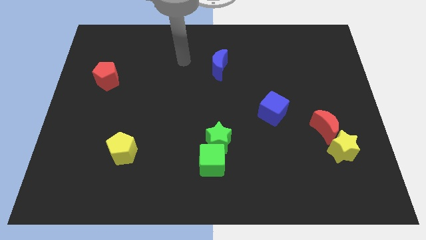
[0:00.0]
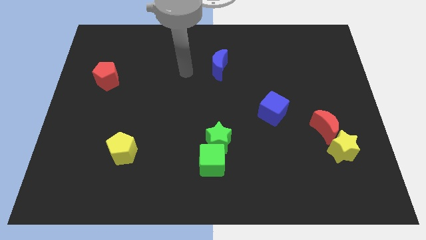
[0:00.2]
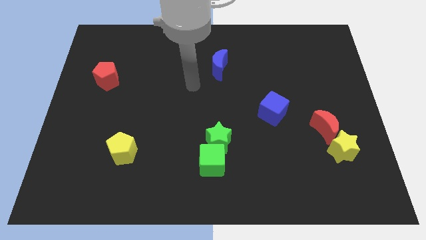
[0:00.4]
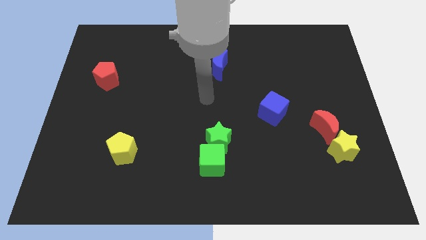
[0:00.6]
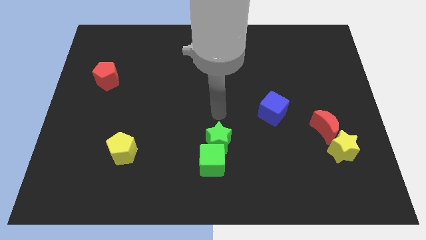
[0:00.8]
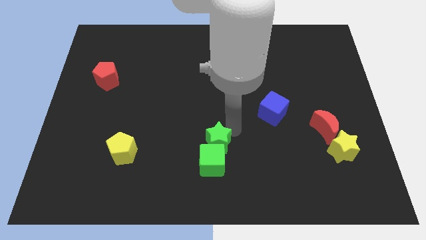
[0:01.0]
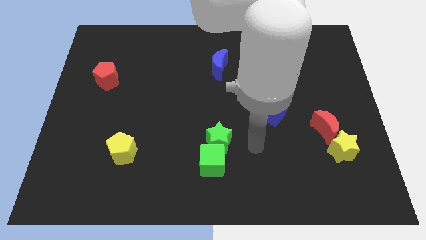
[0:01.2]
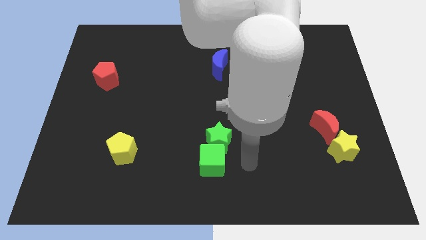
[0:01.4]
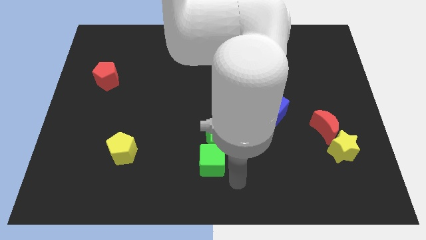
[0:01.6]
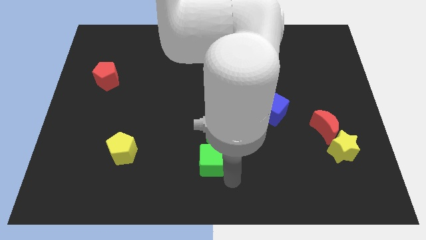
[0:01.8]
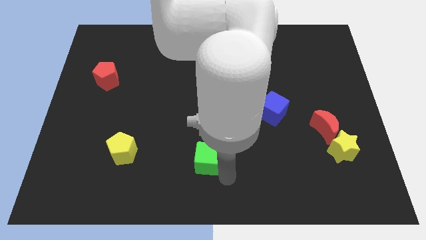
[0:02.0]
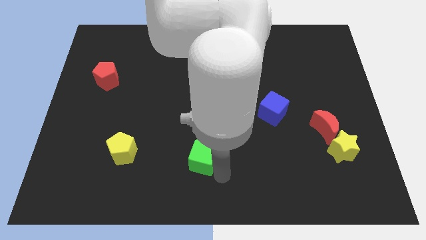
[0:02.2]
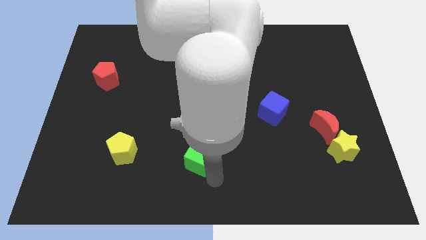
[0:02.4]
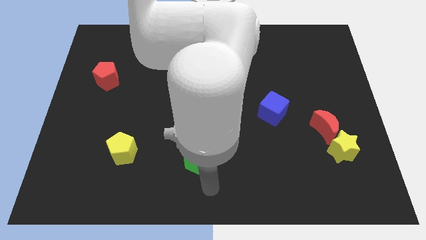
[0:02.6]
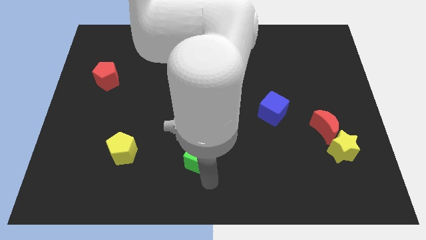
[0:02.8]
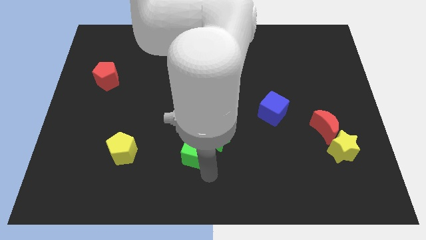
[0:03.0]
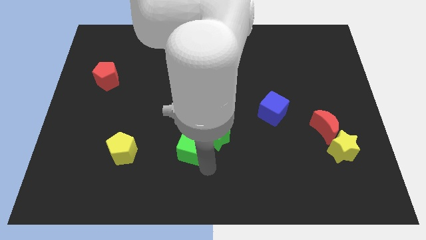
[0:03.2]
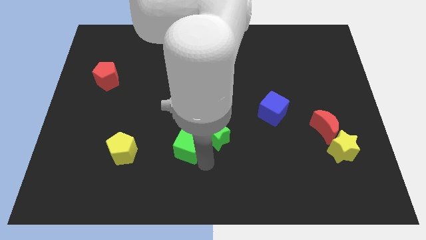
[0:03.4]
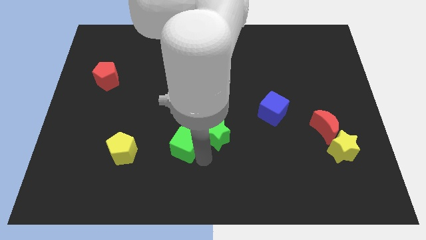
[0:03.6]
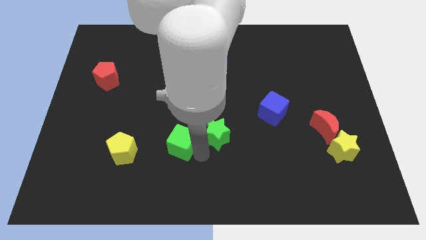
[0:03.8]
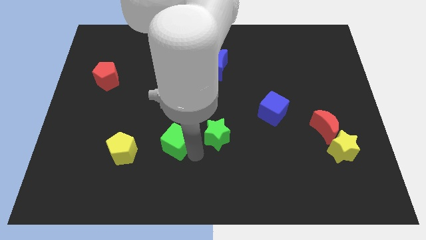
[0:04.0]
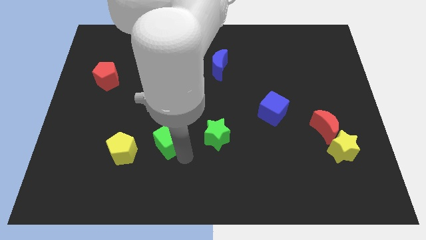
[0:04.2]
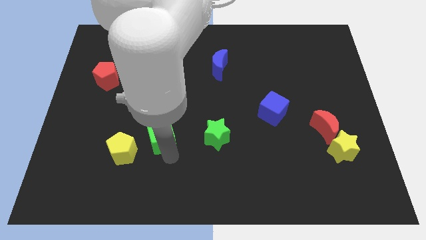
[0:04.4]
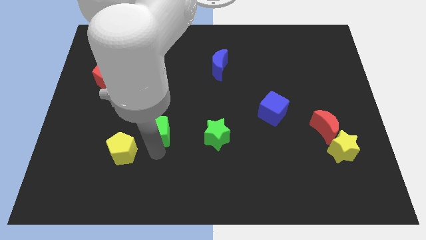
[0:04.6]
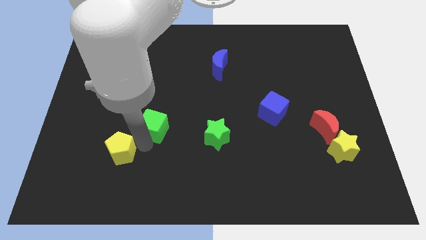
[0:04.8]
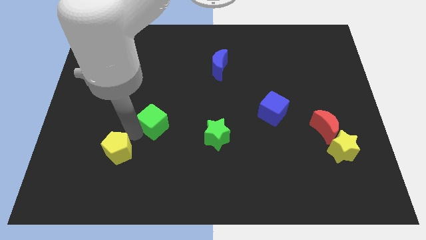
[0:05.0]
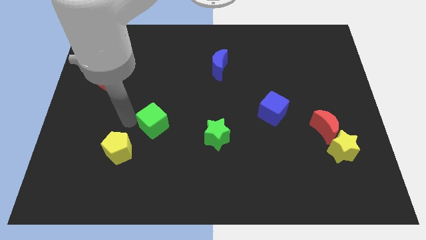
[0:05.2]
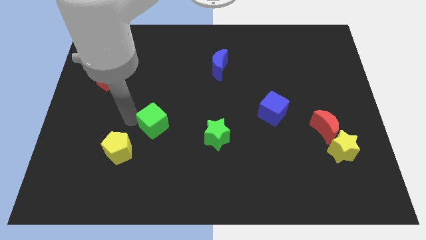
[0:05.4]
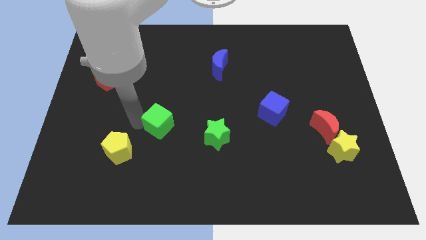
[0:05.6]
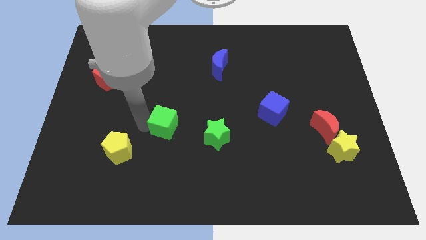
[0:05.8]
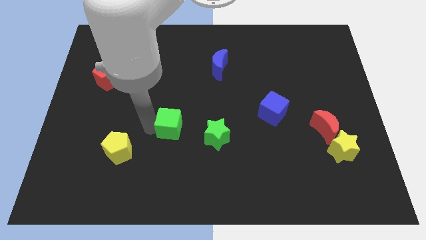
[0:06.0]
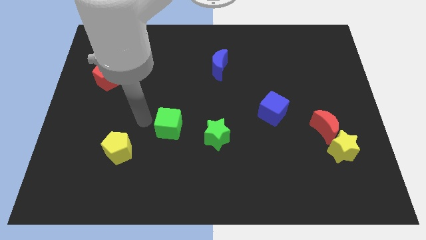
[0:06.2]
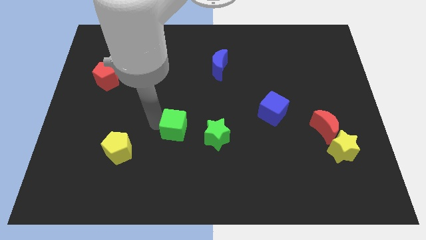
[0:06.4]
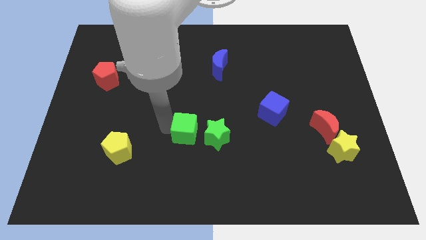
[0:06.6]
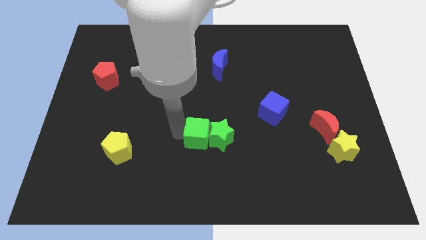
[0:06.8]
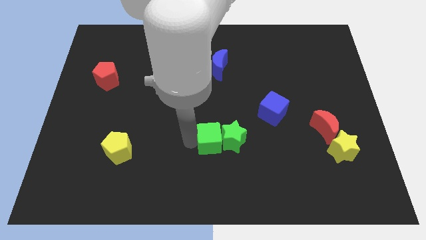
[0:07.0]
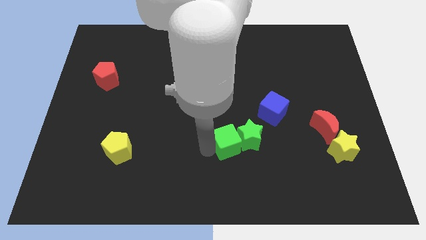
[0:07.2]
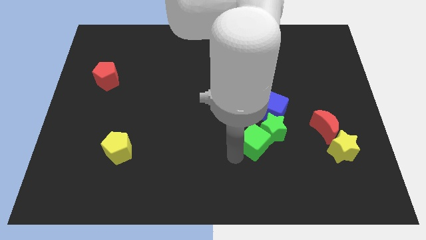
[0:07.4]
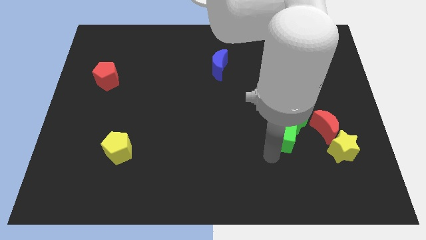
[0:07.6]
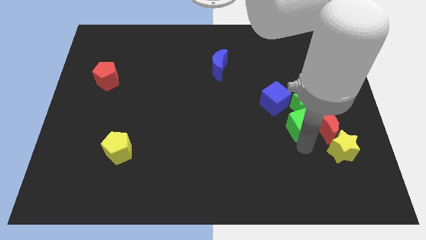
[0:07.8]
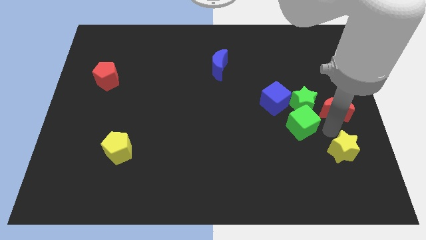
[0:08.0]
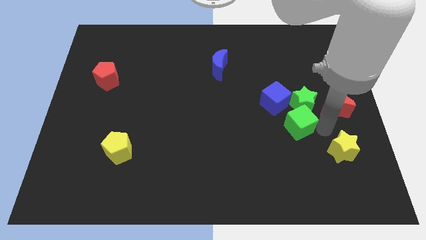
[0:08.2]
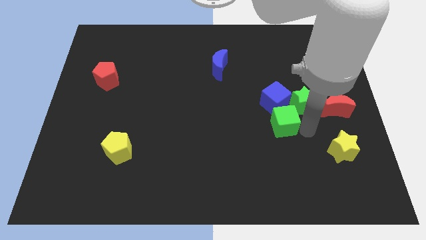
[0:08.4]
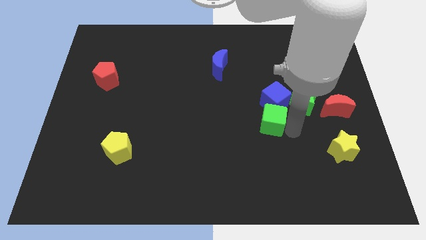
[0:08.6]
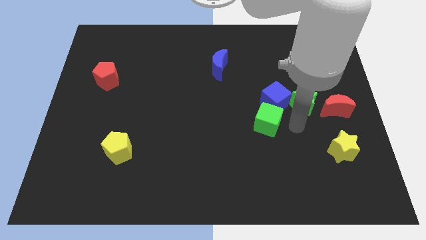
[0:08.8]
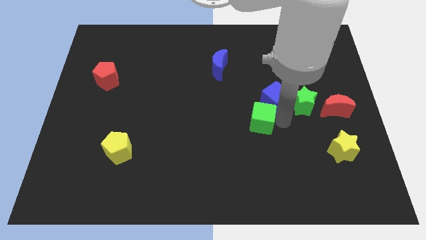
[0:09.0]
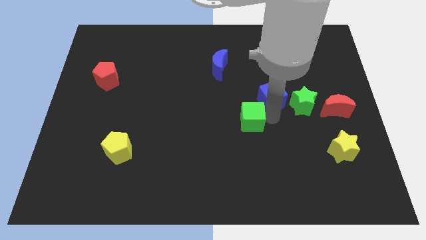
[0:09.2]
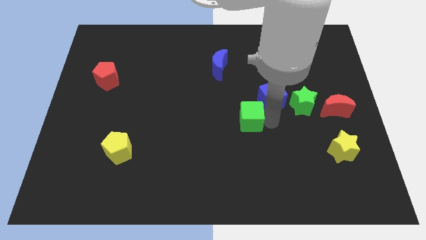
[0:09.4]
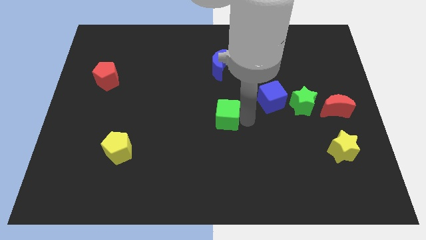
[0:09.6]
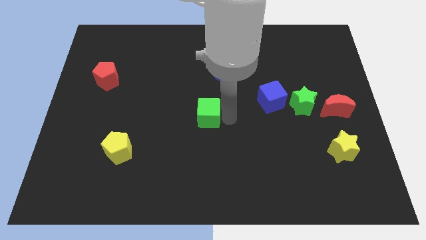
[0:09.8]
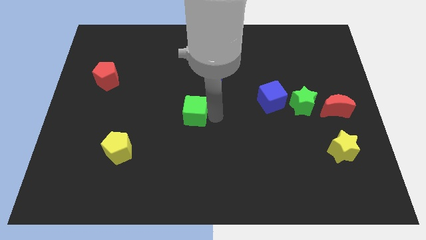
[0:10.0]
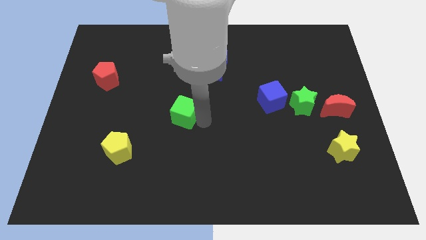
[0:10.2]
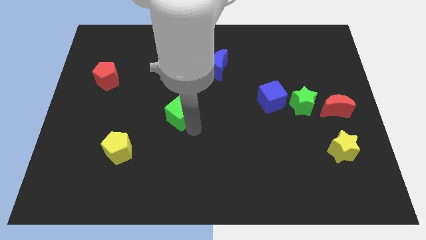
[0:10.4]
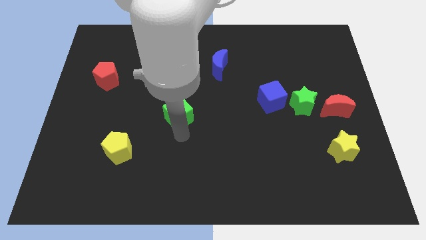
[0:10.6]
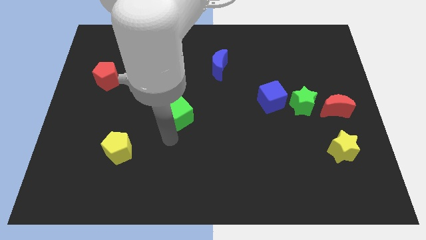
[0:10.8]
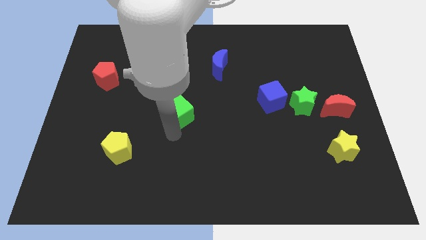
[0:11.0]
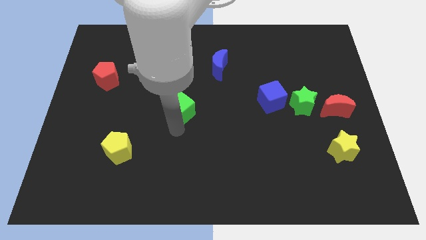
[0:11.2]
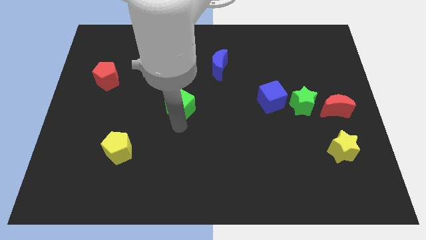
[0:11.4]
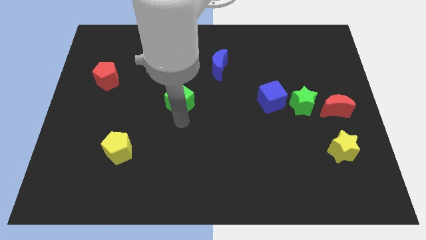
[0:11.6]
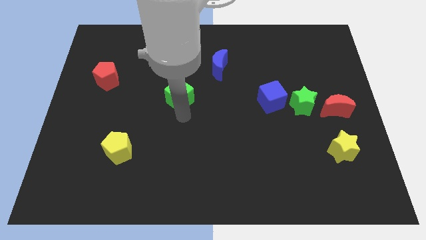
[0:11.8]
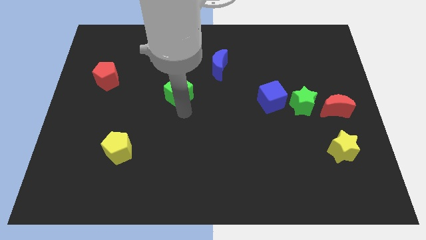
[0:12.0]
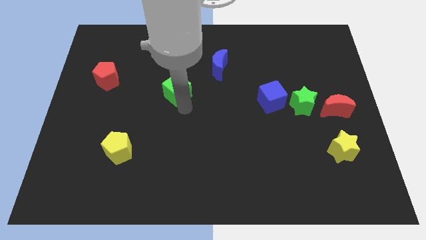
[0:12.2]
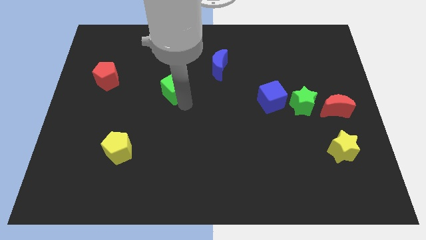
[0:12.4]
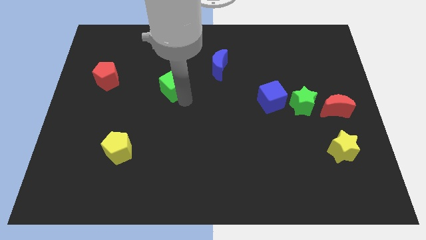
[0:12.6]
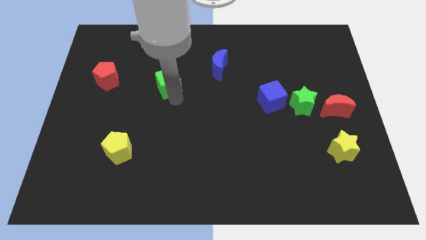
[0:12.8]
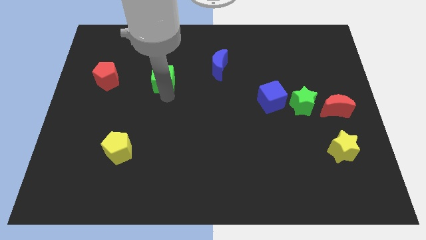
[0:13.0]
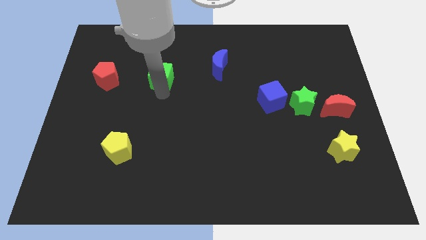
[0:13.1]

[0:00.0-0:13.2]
push the green cube just left of the blue moon

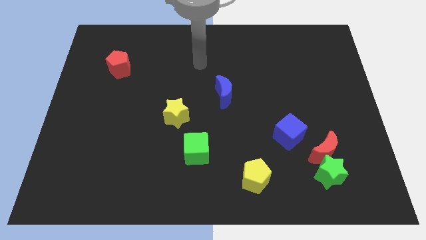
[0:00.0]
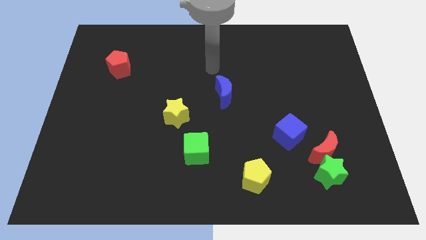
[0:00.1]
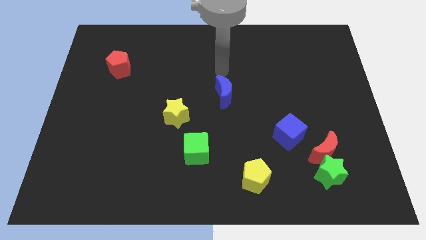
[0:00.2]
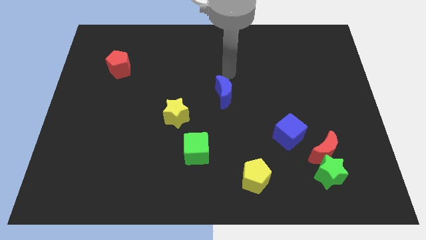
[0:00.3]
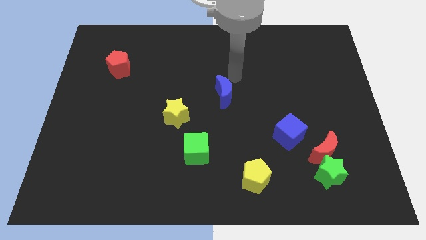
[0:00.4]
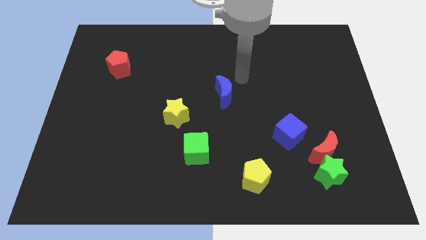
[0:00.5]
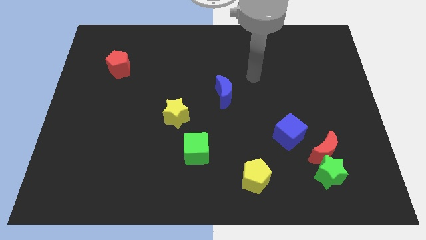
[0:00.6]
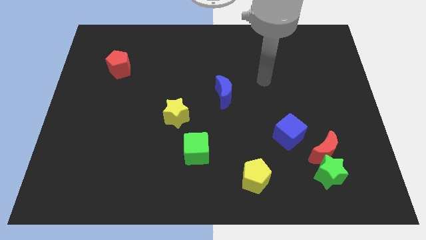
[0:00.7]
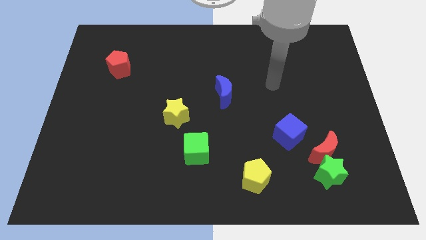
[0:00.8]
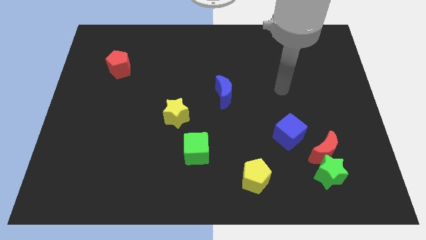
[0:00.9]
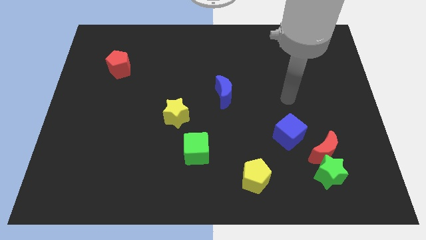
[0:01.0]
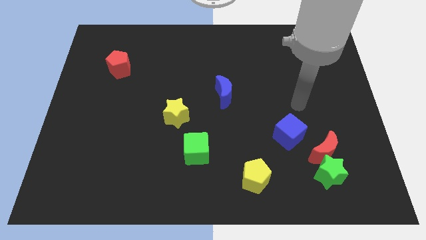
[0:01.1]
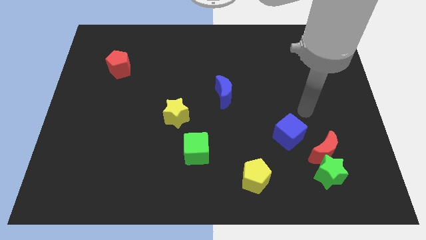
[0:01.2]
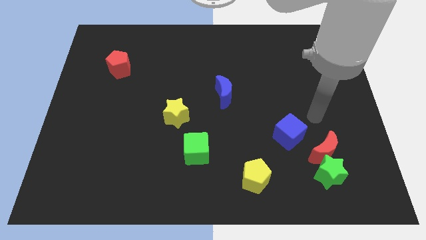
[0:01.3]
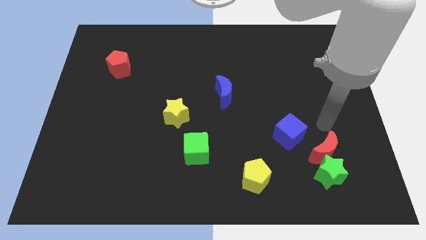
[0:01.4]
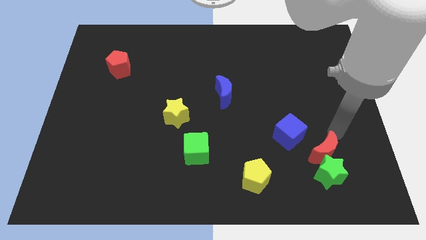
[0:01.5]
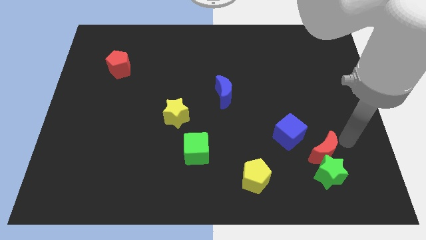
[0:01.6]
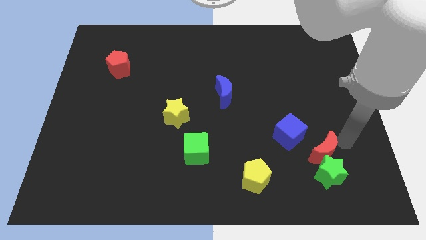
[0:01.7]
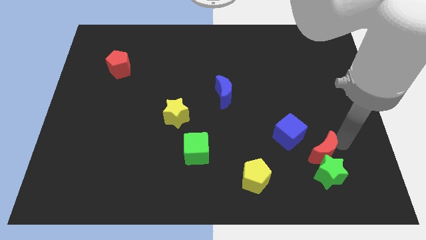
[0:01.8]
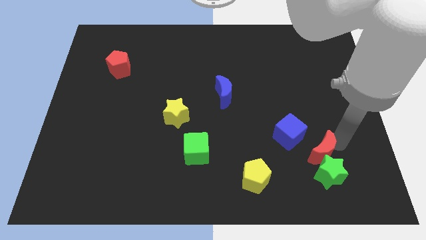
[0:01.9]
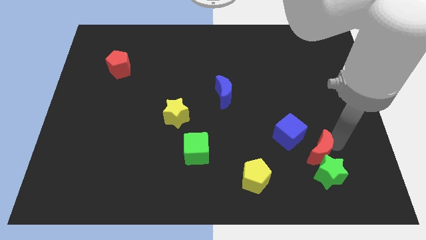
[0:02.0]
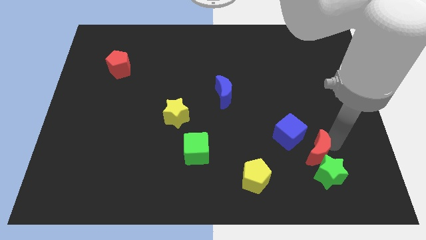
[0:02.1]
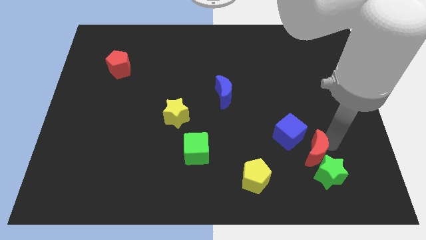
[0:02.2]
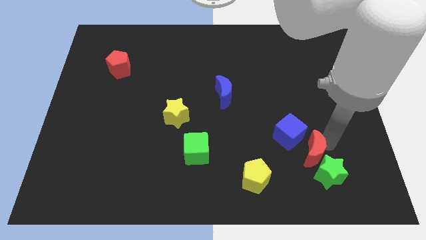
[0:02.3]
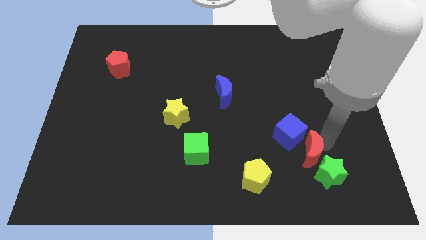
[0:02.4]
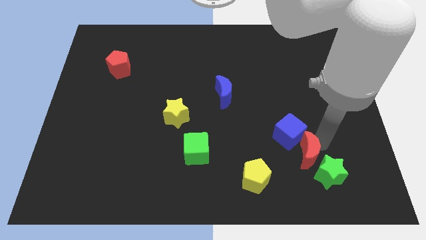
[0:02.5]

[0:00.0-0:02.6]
move the red moon to the left of the green star
